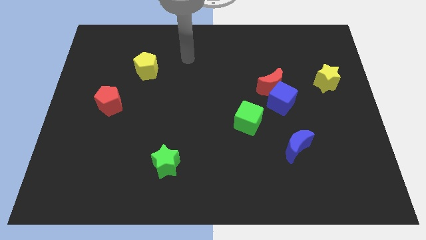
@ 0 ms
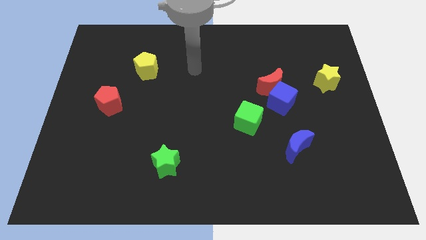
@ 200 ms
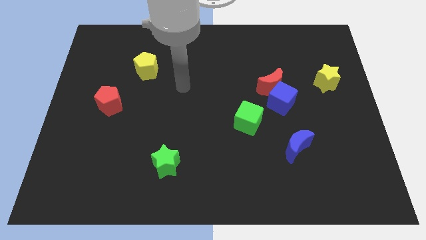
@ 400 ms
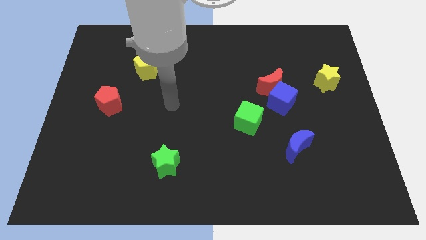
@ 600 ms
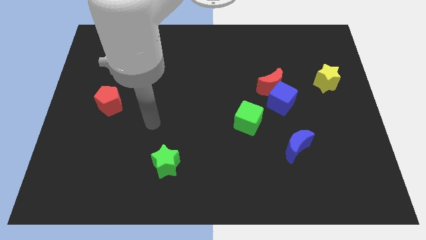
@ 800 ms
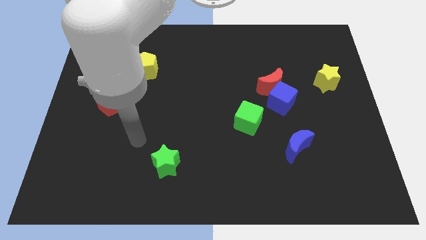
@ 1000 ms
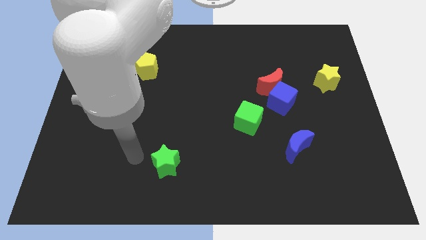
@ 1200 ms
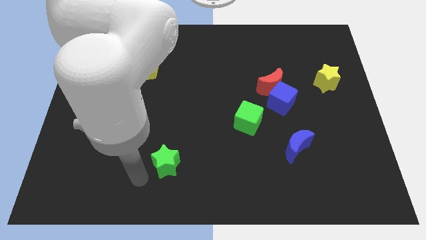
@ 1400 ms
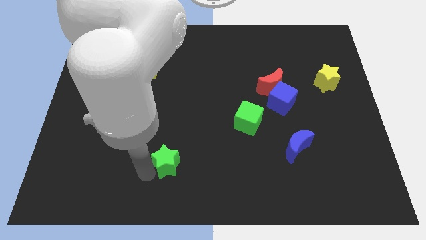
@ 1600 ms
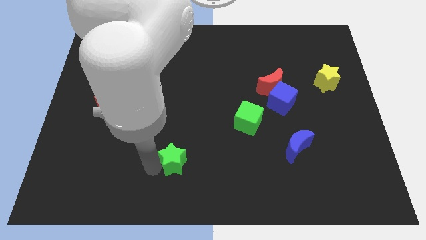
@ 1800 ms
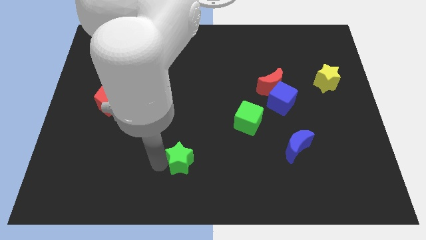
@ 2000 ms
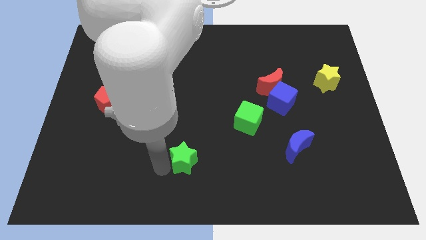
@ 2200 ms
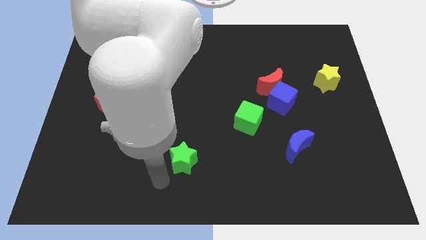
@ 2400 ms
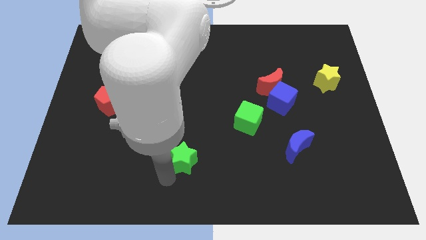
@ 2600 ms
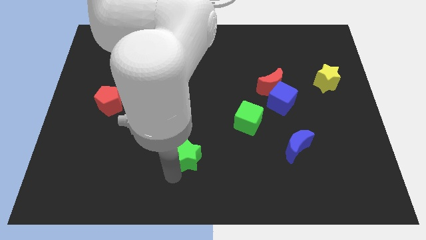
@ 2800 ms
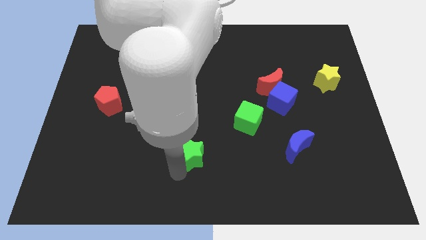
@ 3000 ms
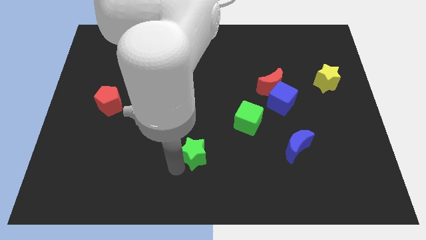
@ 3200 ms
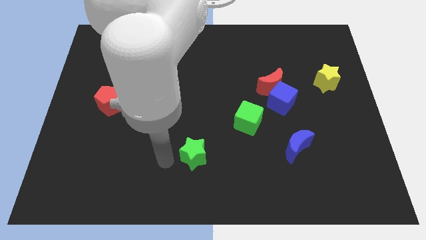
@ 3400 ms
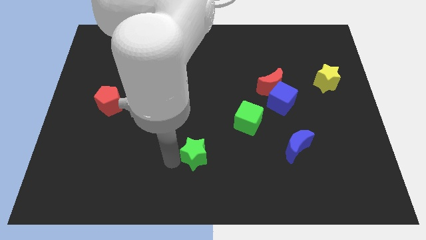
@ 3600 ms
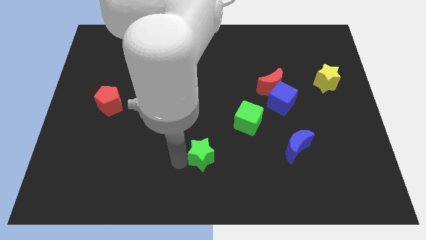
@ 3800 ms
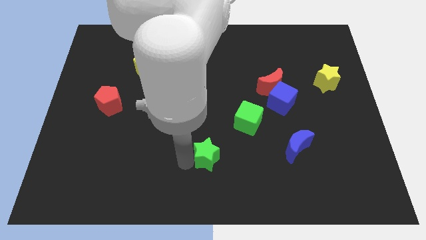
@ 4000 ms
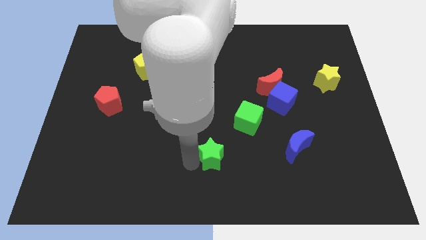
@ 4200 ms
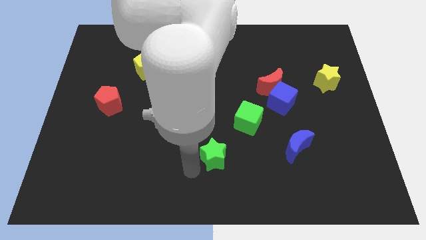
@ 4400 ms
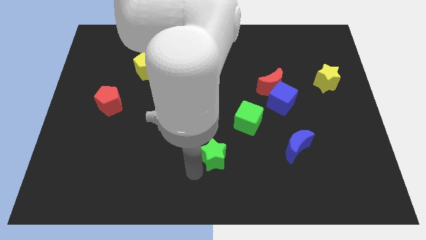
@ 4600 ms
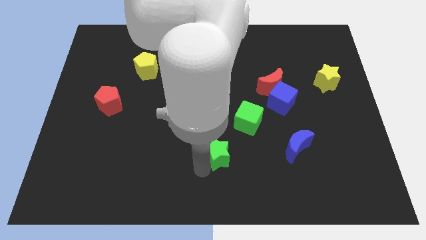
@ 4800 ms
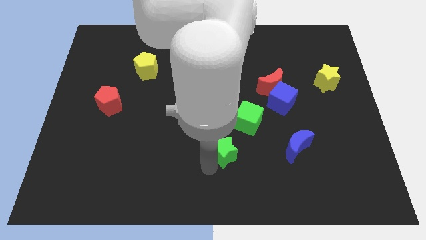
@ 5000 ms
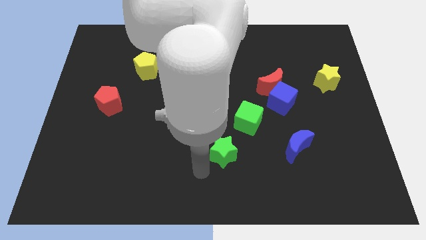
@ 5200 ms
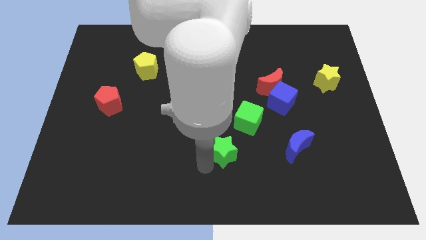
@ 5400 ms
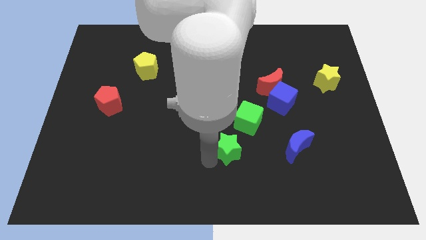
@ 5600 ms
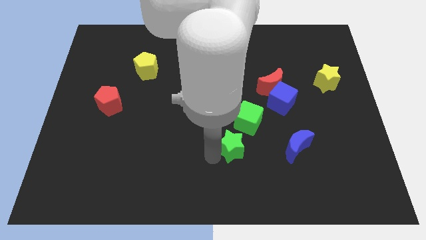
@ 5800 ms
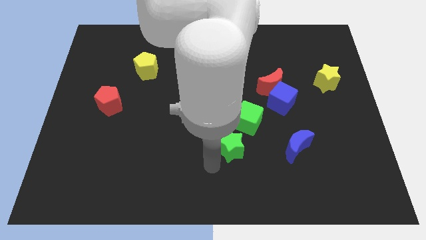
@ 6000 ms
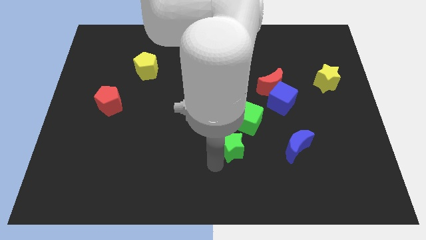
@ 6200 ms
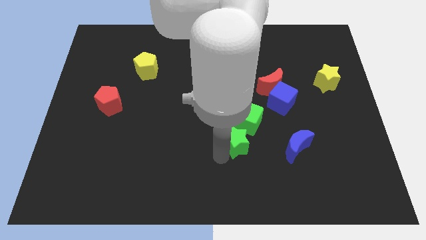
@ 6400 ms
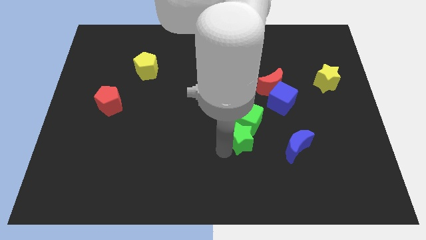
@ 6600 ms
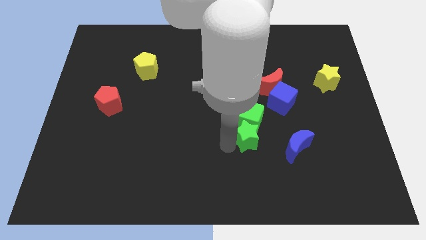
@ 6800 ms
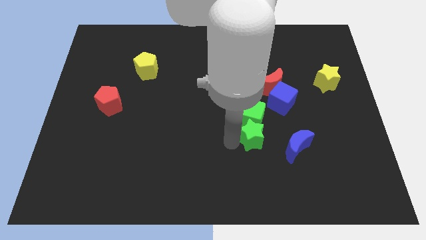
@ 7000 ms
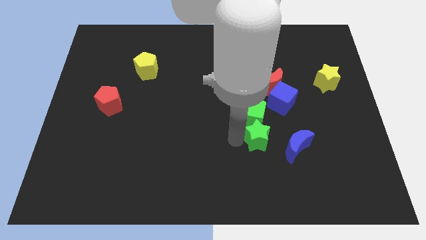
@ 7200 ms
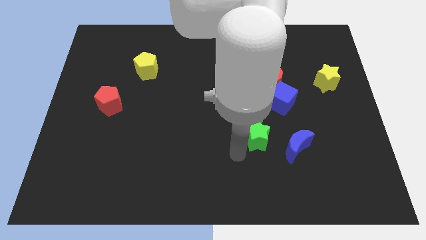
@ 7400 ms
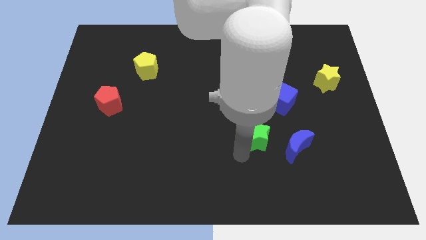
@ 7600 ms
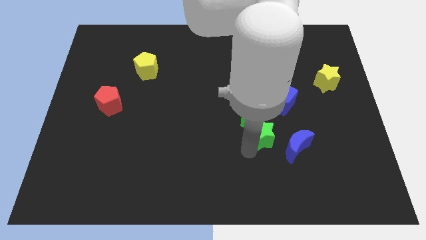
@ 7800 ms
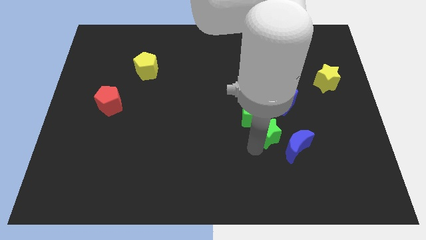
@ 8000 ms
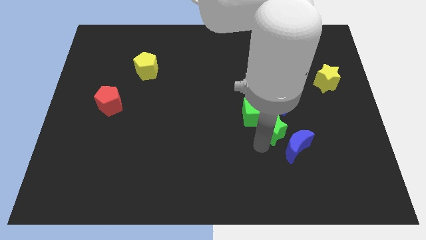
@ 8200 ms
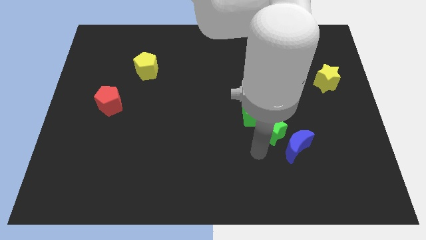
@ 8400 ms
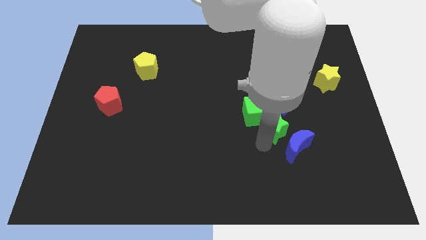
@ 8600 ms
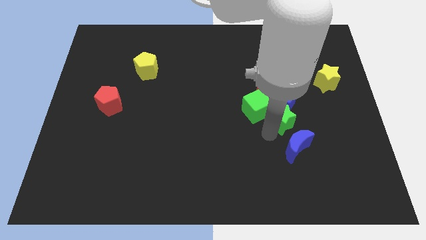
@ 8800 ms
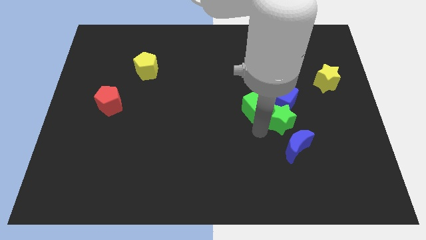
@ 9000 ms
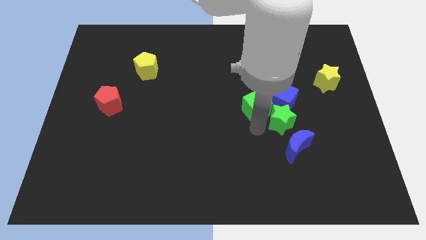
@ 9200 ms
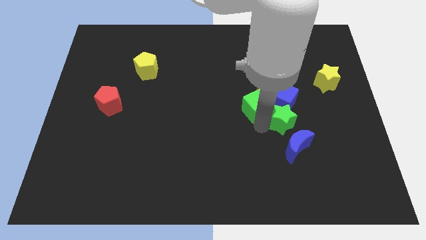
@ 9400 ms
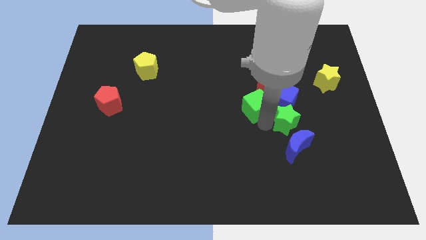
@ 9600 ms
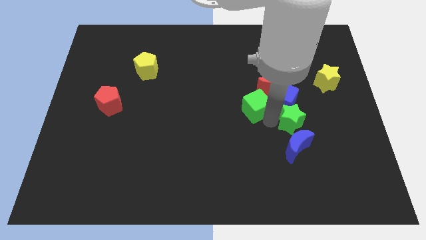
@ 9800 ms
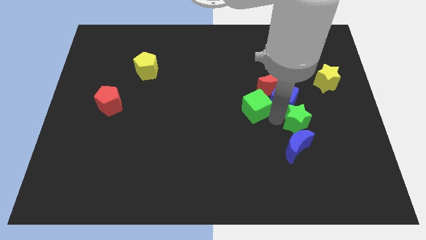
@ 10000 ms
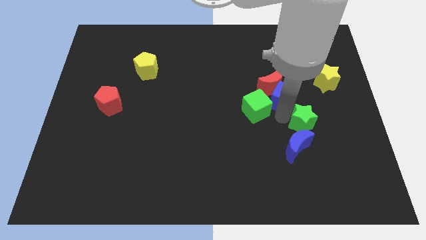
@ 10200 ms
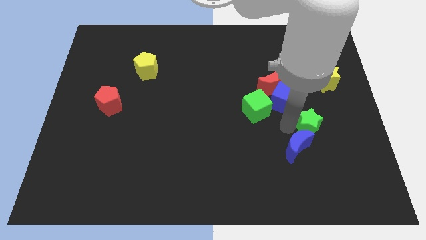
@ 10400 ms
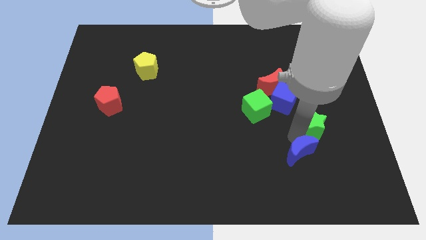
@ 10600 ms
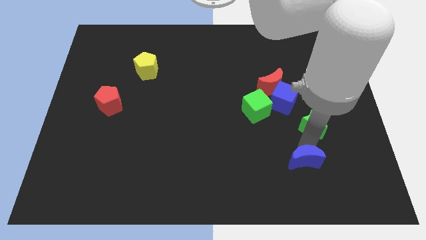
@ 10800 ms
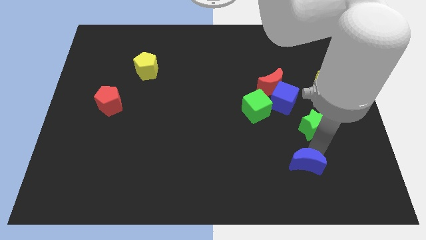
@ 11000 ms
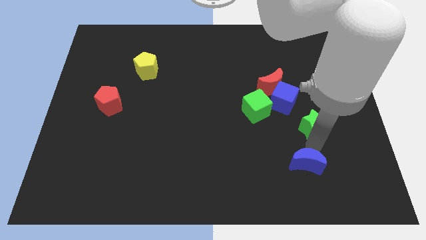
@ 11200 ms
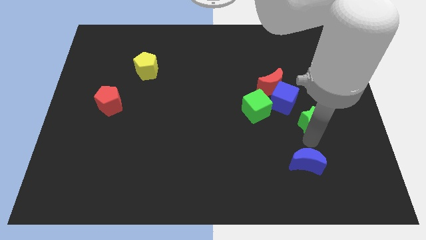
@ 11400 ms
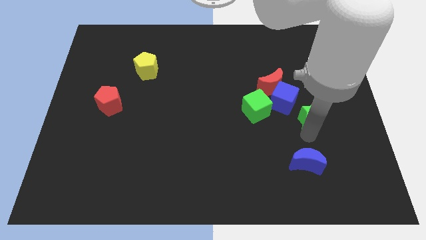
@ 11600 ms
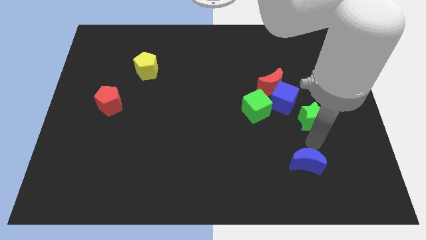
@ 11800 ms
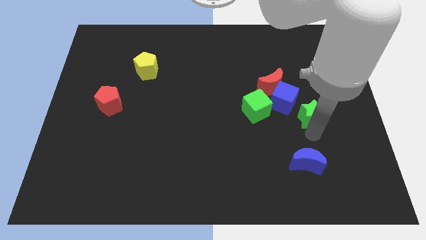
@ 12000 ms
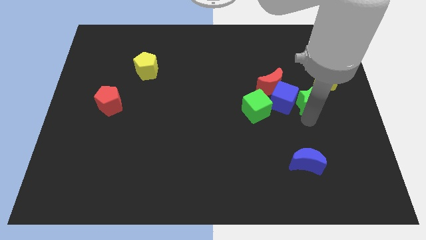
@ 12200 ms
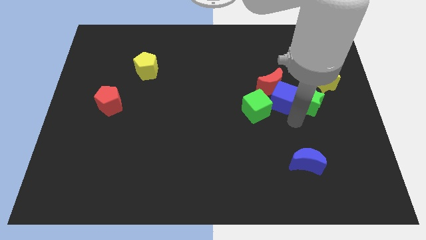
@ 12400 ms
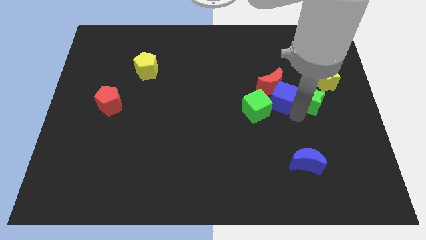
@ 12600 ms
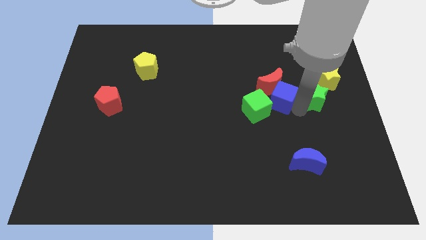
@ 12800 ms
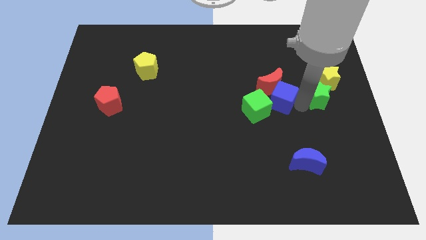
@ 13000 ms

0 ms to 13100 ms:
slide the green star close to the yellow star

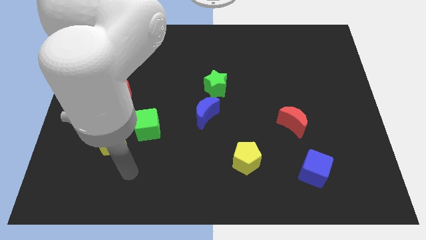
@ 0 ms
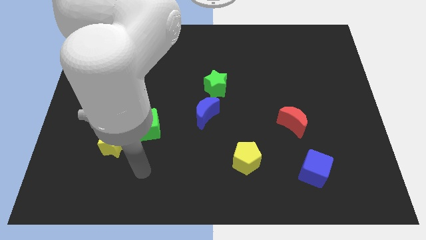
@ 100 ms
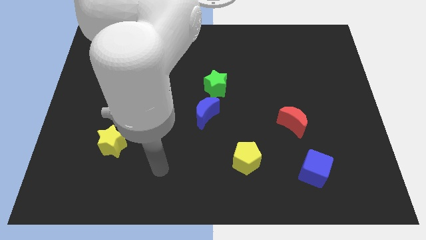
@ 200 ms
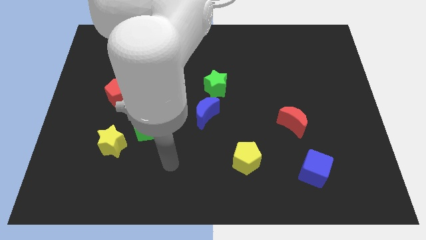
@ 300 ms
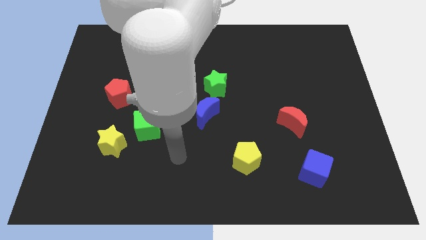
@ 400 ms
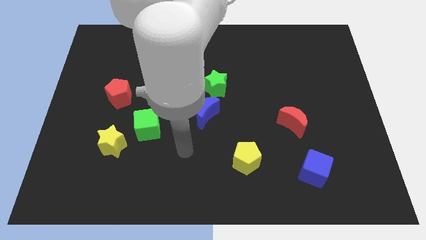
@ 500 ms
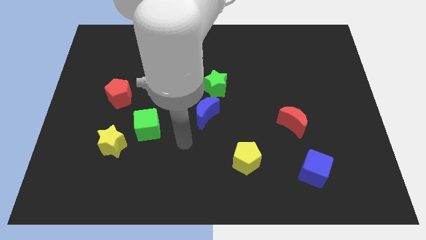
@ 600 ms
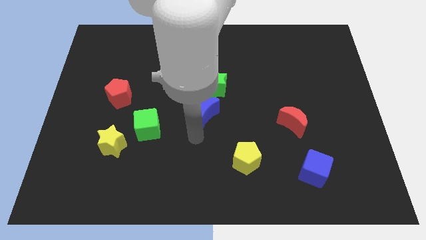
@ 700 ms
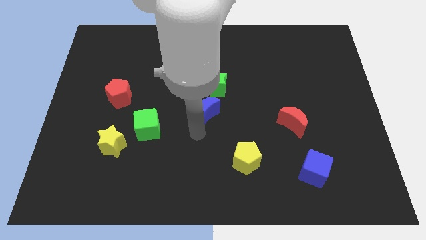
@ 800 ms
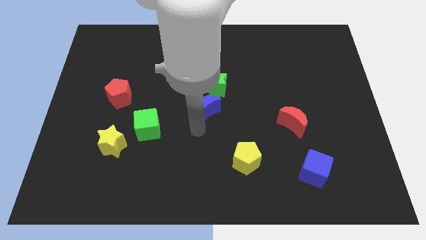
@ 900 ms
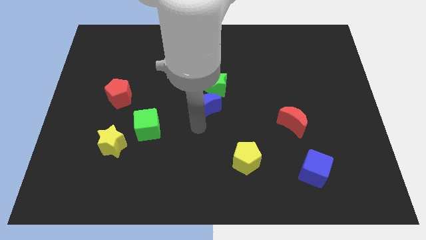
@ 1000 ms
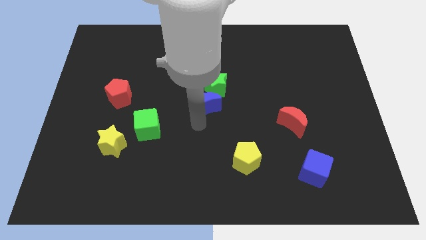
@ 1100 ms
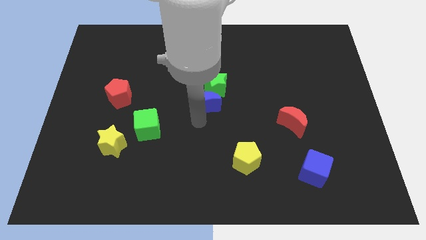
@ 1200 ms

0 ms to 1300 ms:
slide the blue moon to the green star
